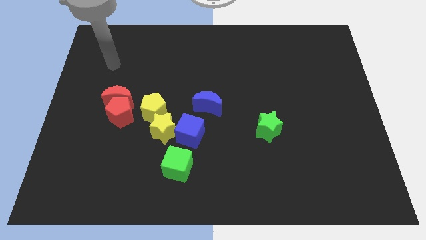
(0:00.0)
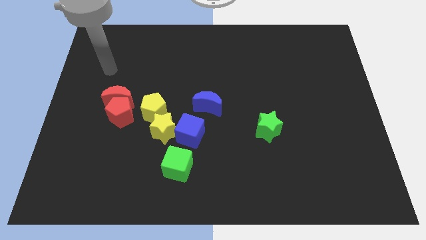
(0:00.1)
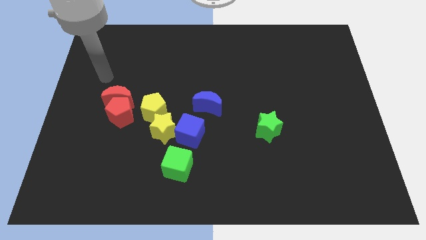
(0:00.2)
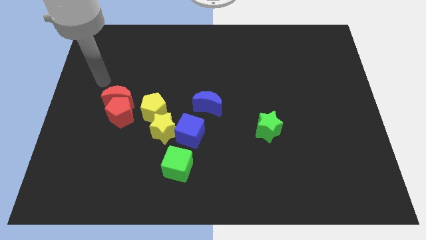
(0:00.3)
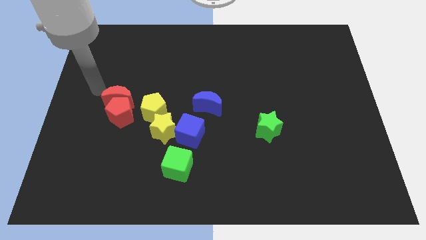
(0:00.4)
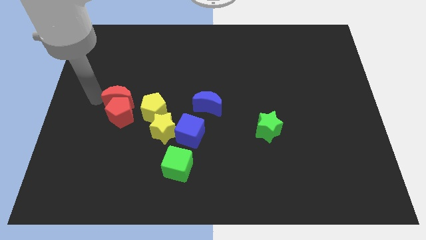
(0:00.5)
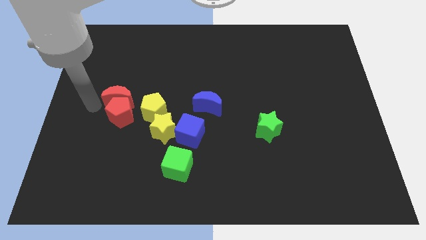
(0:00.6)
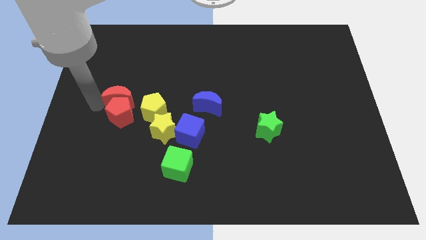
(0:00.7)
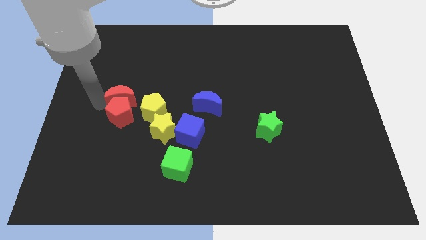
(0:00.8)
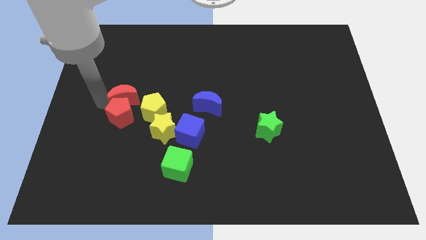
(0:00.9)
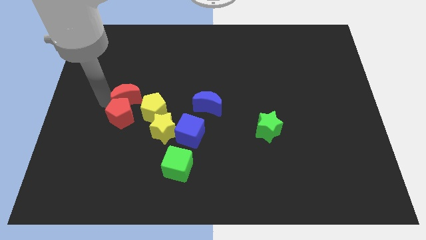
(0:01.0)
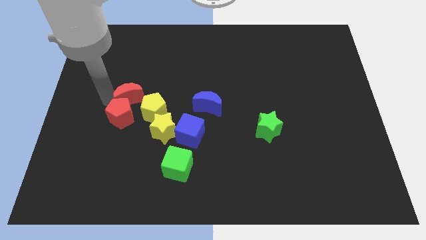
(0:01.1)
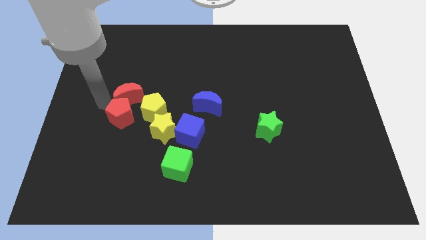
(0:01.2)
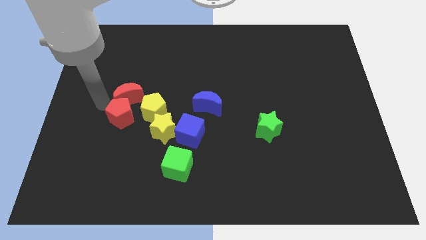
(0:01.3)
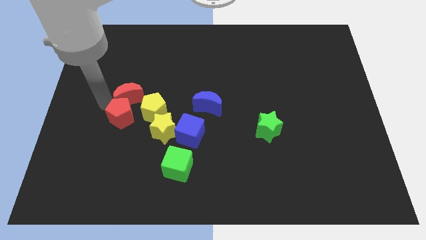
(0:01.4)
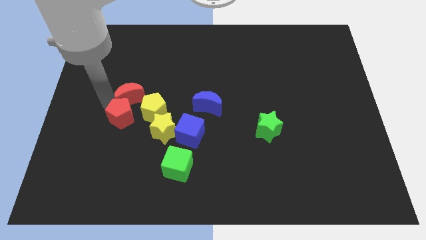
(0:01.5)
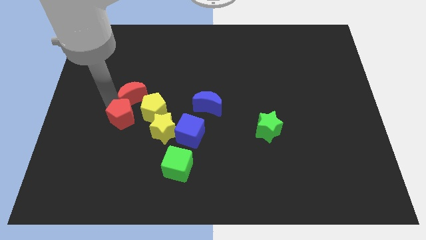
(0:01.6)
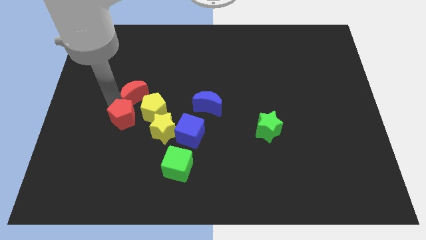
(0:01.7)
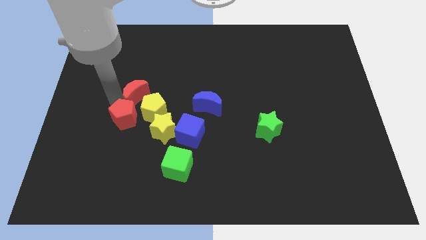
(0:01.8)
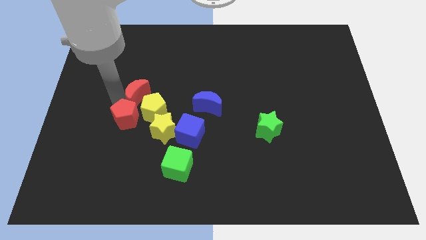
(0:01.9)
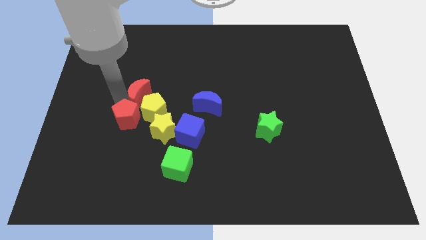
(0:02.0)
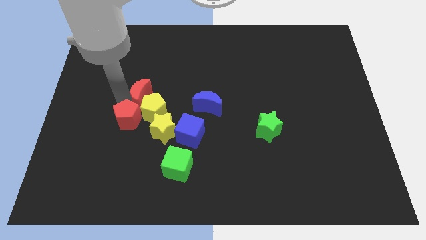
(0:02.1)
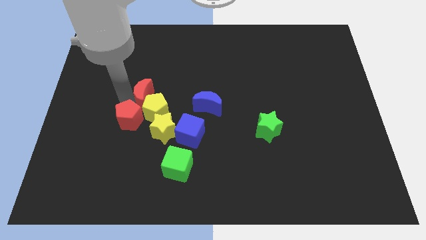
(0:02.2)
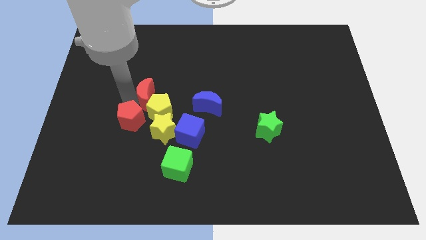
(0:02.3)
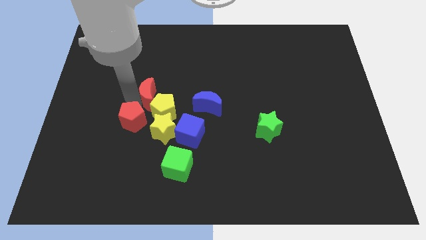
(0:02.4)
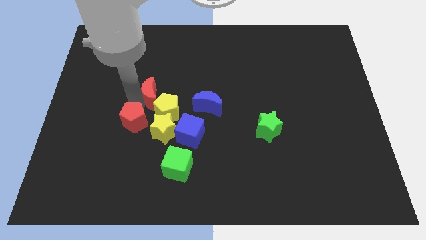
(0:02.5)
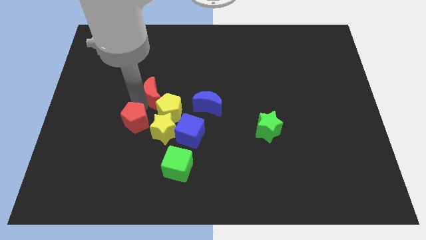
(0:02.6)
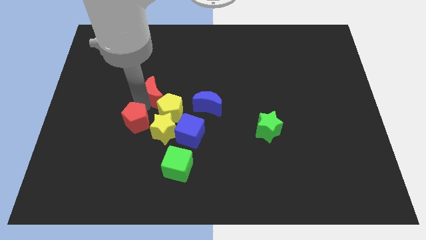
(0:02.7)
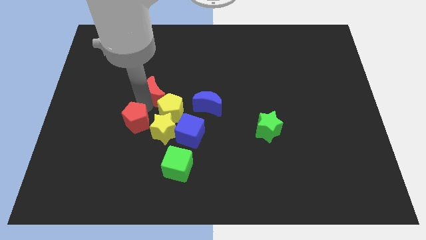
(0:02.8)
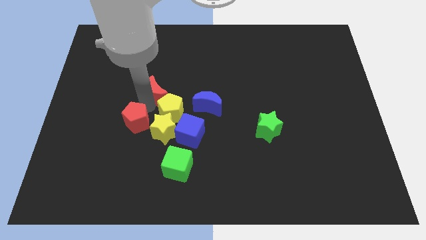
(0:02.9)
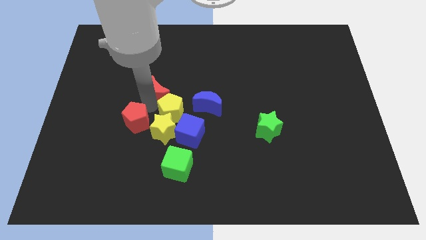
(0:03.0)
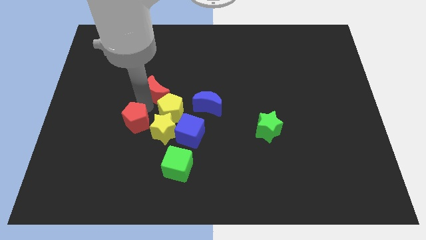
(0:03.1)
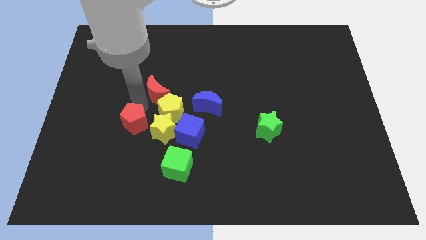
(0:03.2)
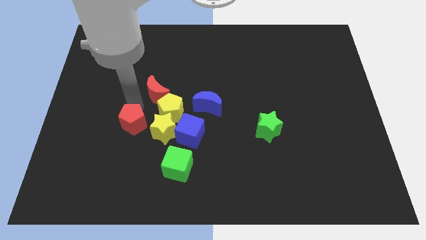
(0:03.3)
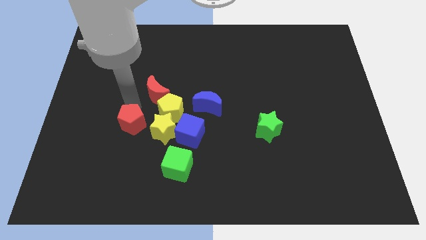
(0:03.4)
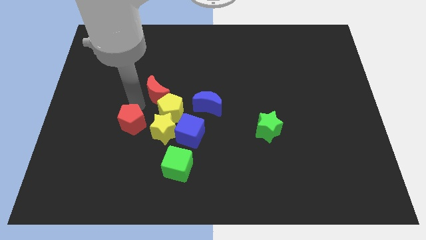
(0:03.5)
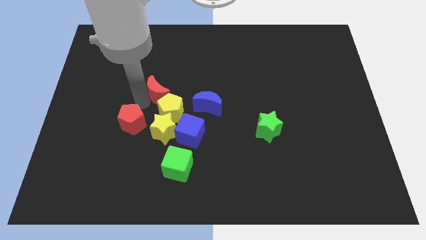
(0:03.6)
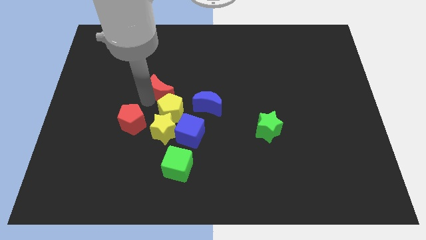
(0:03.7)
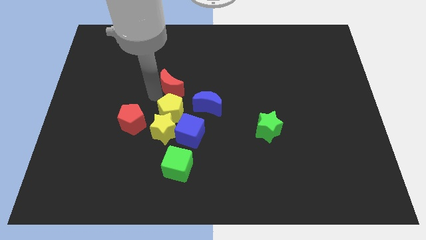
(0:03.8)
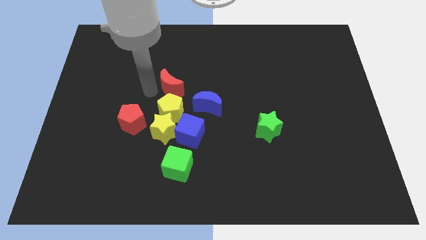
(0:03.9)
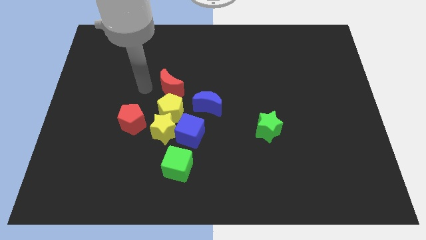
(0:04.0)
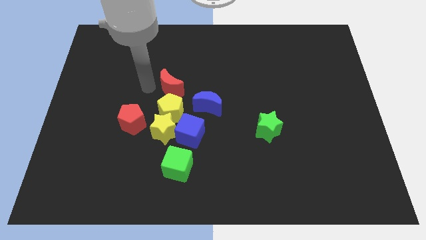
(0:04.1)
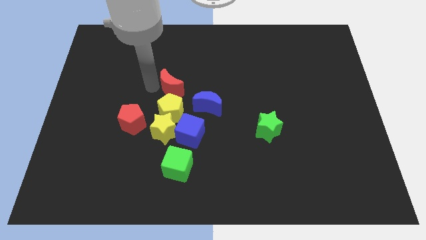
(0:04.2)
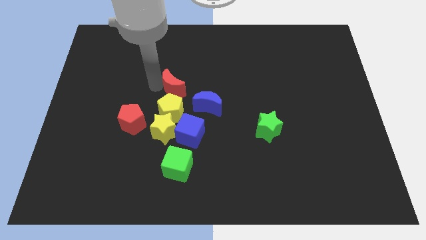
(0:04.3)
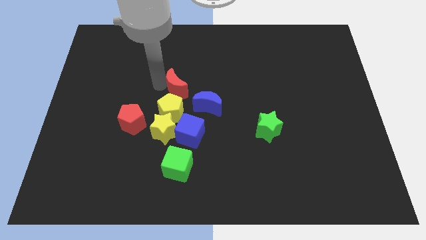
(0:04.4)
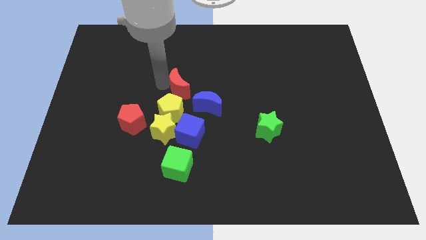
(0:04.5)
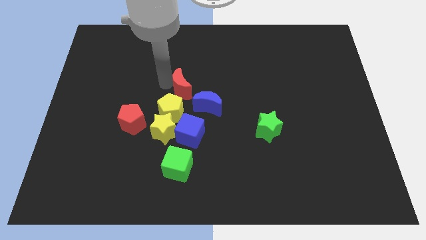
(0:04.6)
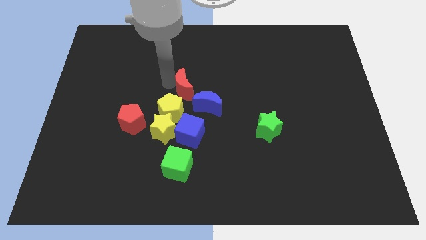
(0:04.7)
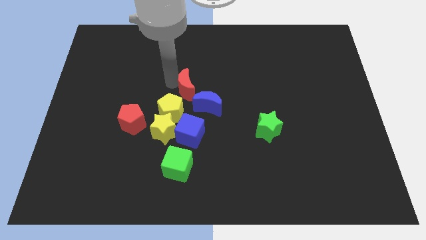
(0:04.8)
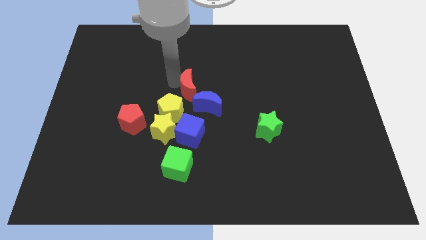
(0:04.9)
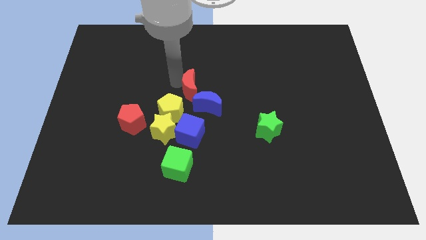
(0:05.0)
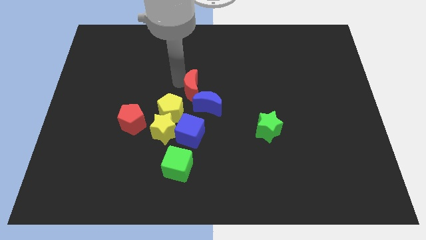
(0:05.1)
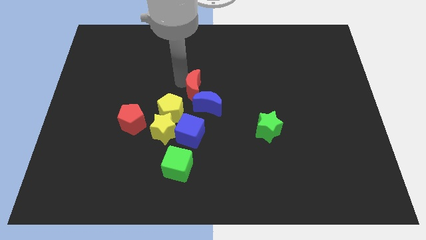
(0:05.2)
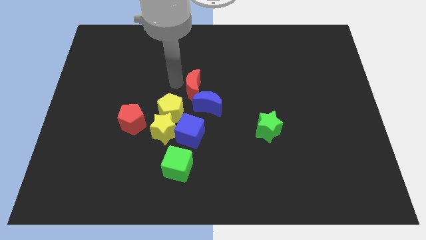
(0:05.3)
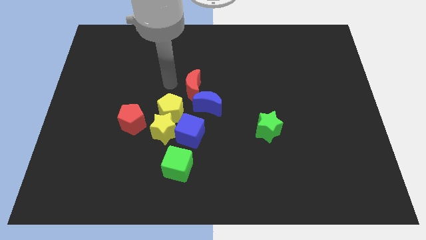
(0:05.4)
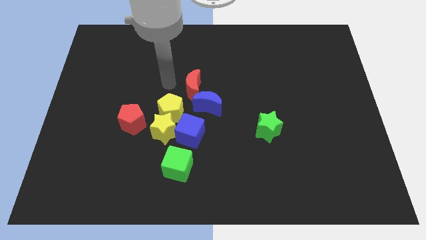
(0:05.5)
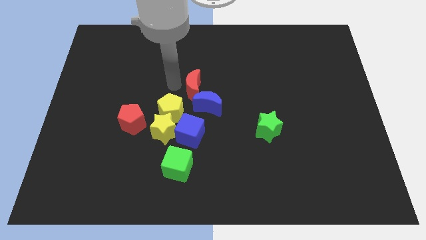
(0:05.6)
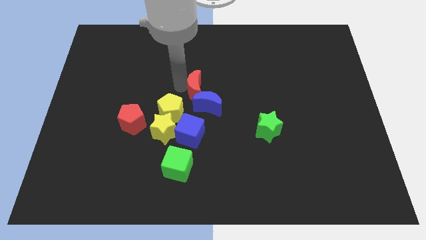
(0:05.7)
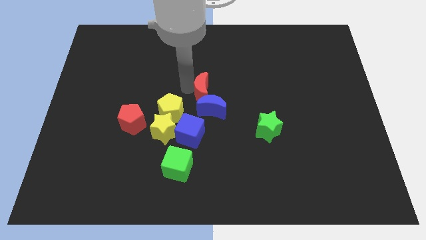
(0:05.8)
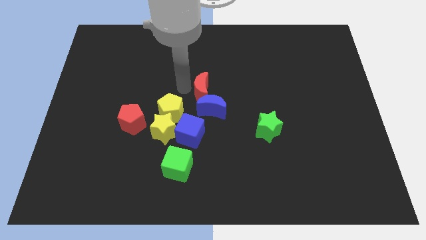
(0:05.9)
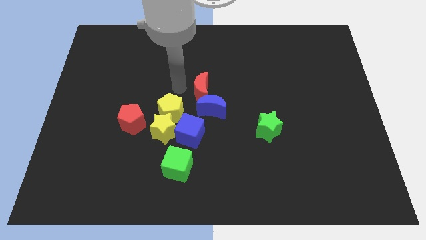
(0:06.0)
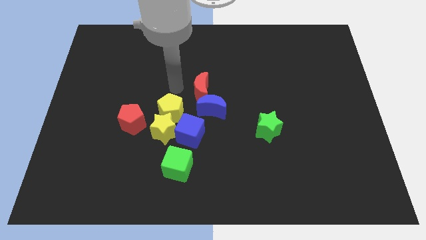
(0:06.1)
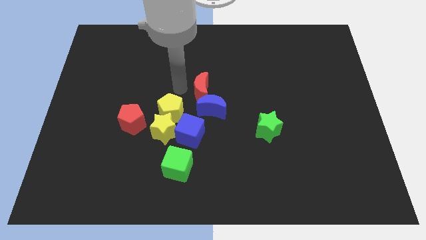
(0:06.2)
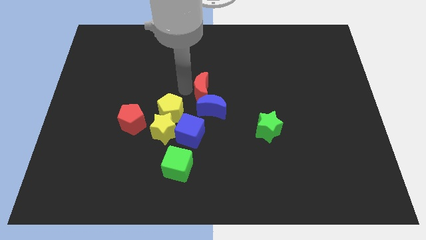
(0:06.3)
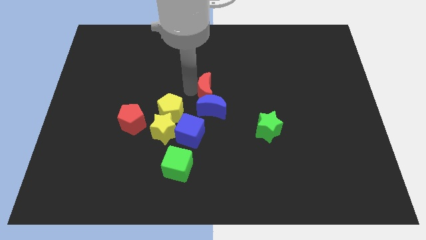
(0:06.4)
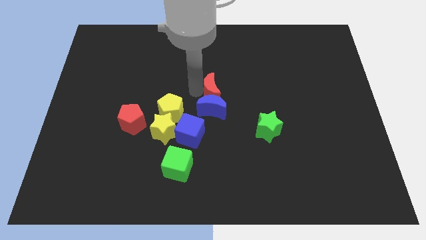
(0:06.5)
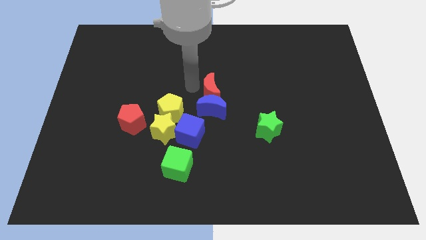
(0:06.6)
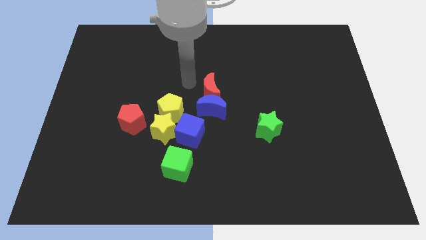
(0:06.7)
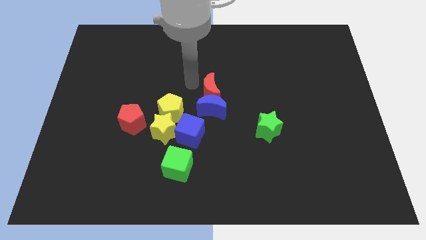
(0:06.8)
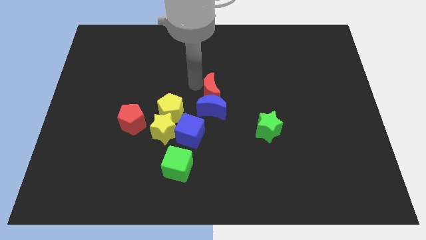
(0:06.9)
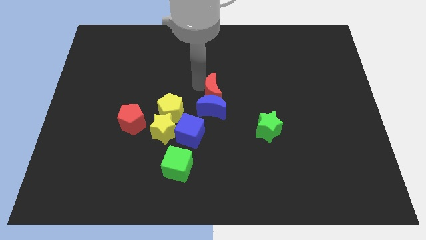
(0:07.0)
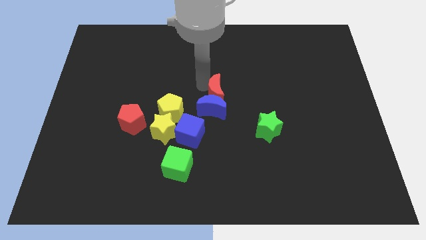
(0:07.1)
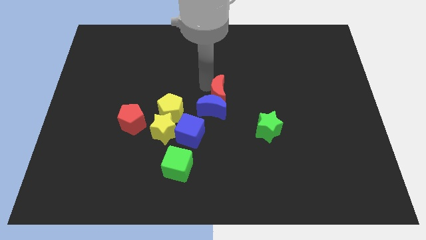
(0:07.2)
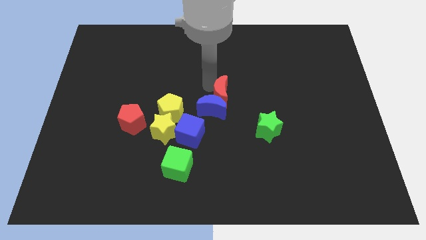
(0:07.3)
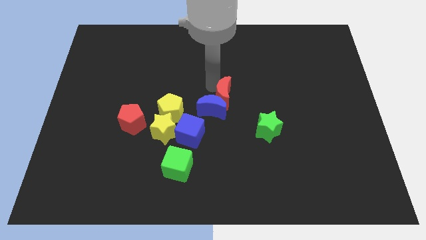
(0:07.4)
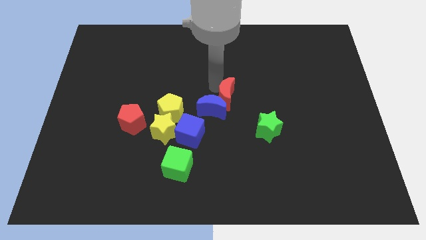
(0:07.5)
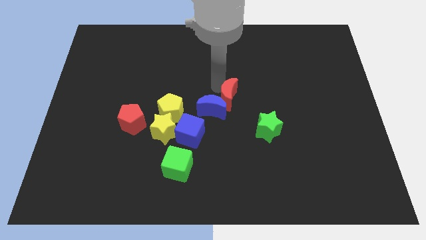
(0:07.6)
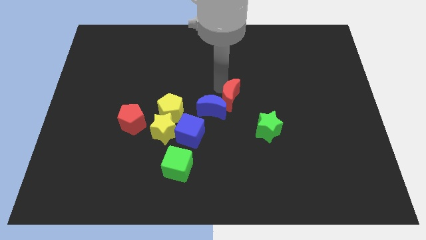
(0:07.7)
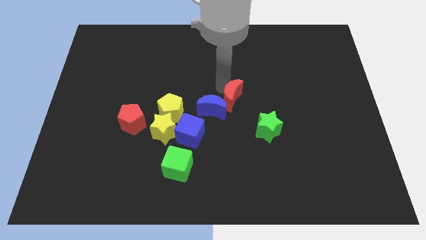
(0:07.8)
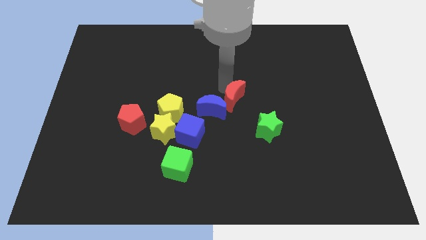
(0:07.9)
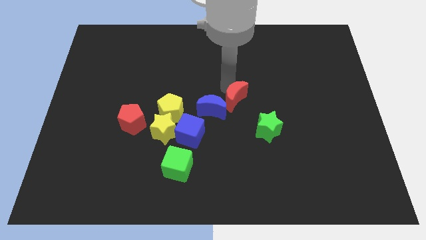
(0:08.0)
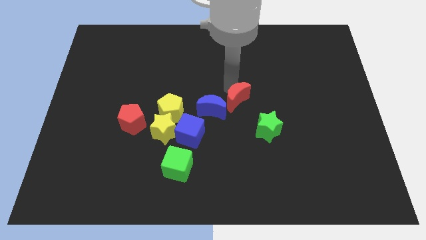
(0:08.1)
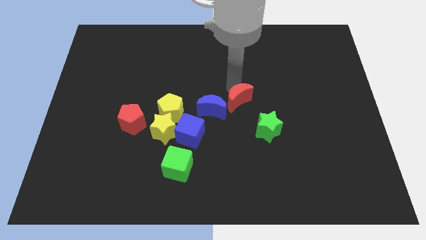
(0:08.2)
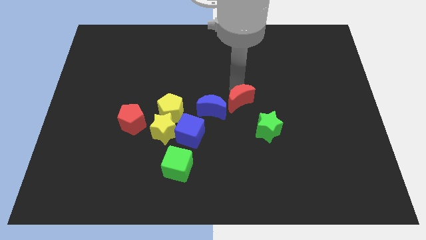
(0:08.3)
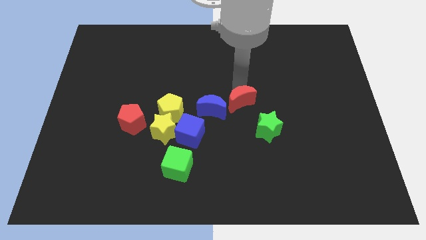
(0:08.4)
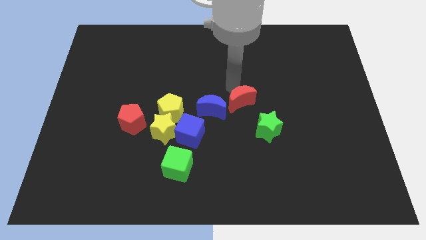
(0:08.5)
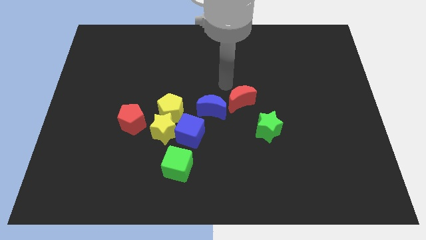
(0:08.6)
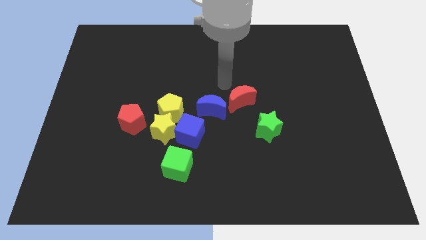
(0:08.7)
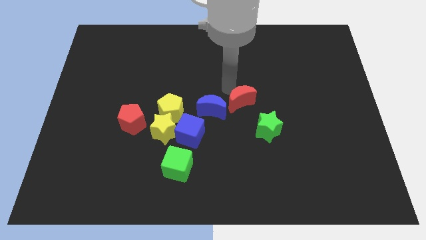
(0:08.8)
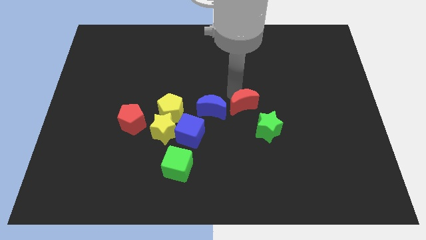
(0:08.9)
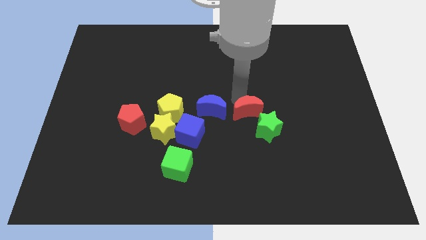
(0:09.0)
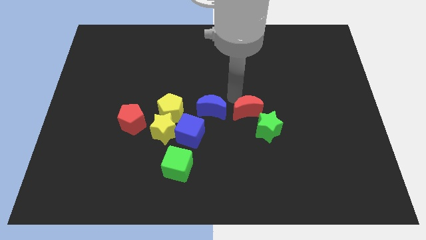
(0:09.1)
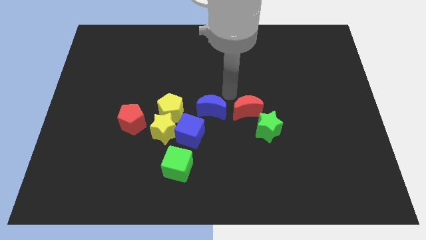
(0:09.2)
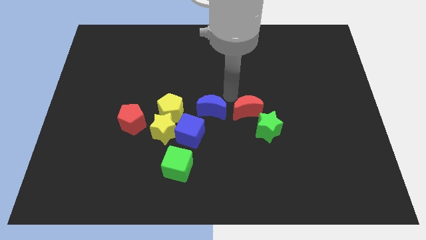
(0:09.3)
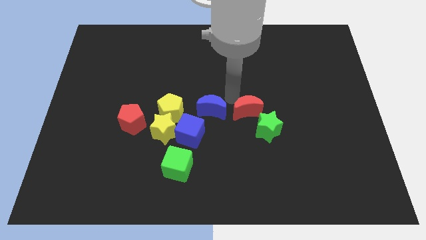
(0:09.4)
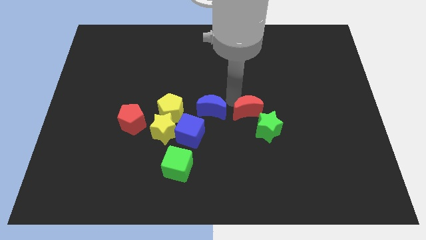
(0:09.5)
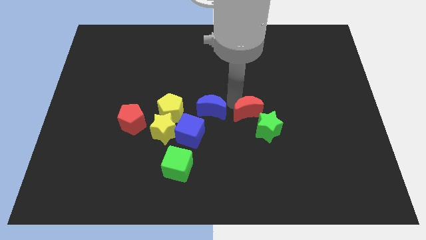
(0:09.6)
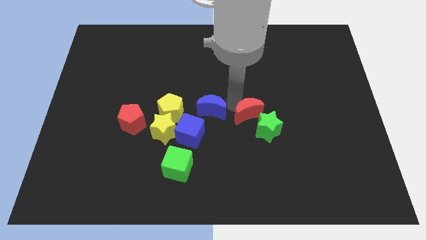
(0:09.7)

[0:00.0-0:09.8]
push the red moon to the green star
